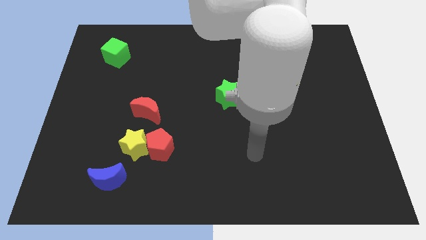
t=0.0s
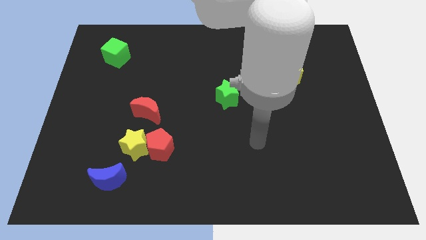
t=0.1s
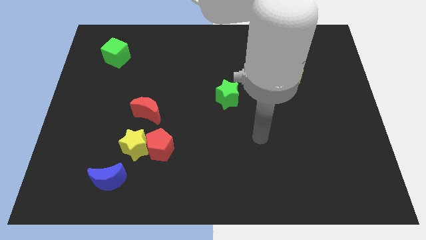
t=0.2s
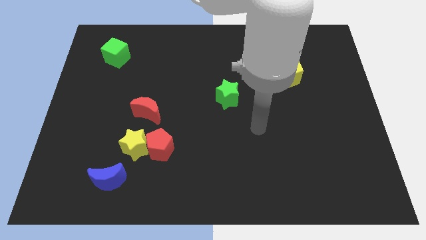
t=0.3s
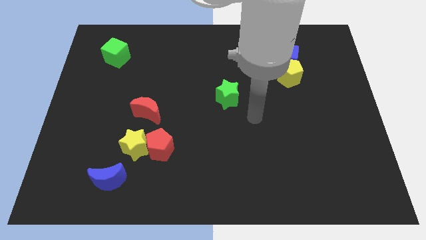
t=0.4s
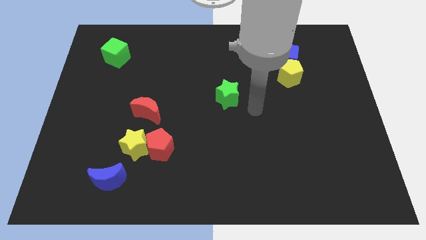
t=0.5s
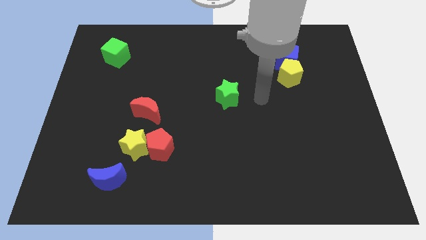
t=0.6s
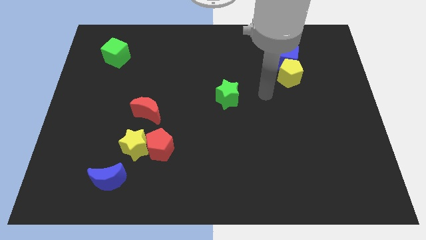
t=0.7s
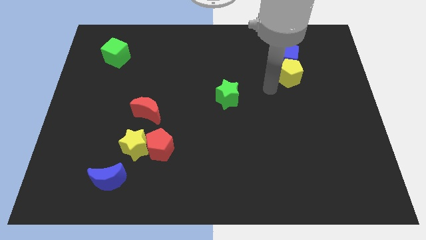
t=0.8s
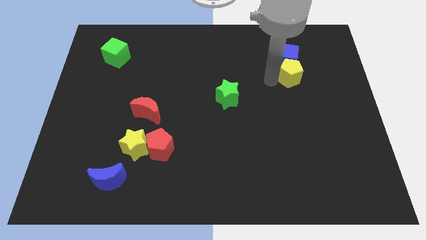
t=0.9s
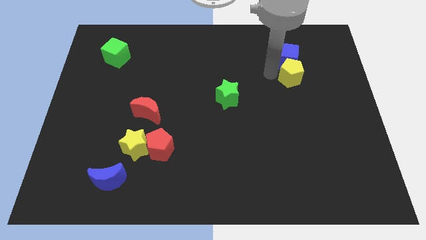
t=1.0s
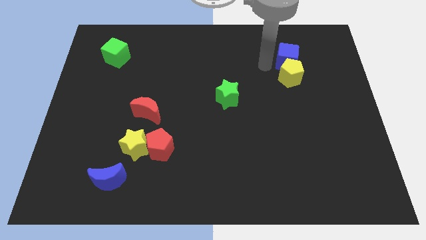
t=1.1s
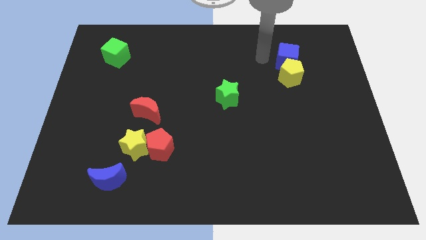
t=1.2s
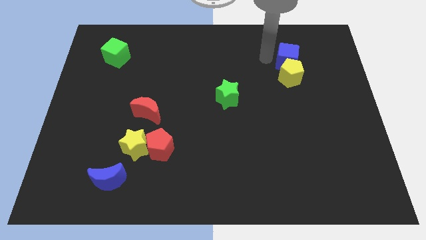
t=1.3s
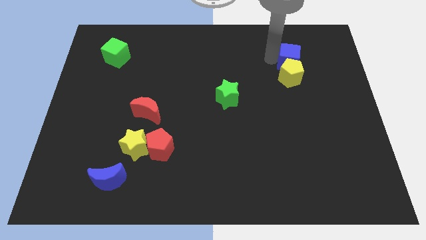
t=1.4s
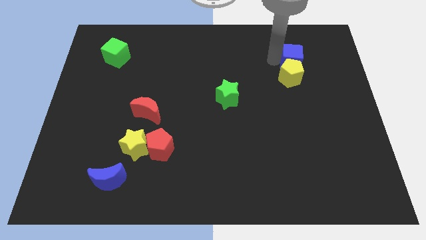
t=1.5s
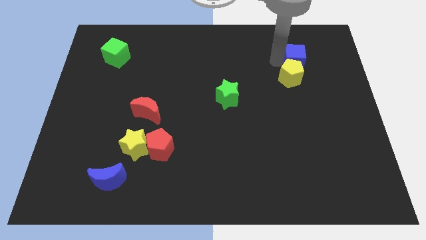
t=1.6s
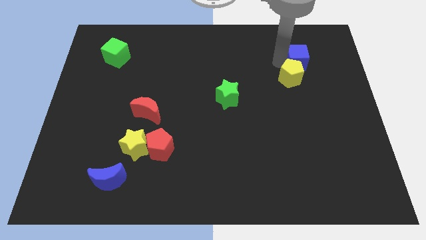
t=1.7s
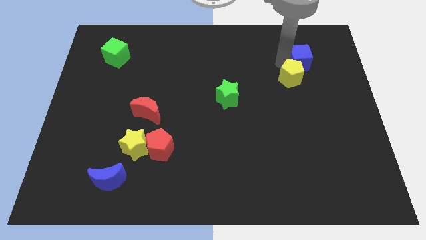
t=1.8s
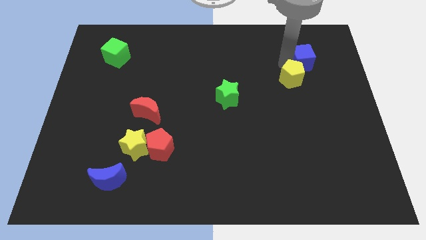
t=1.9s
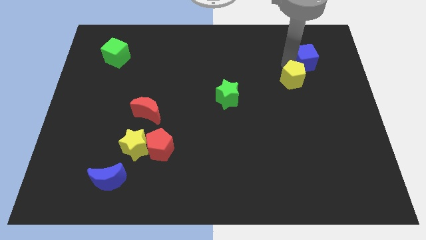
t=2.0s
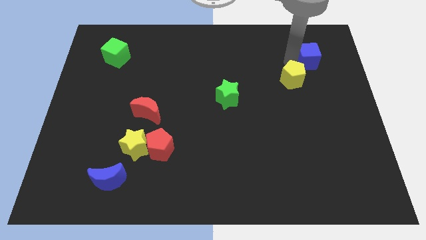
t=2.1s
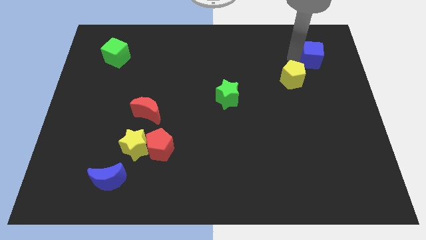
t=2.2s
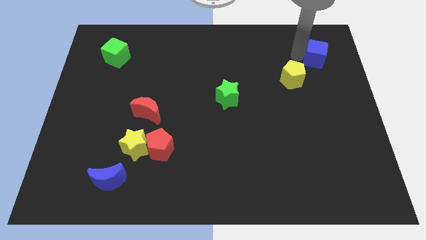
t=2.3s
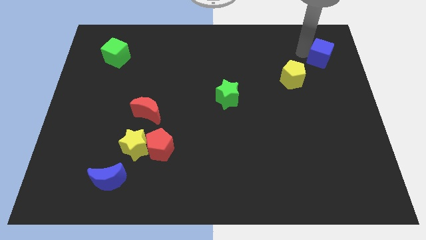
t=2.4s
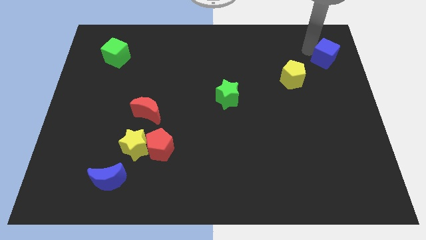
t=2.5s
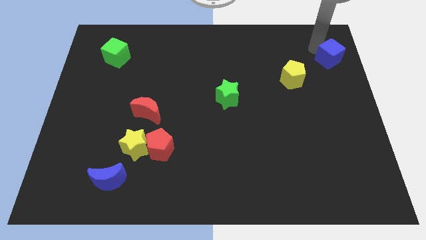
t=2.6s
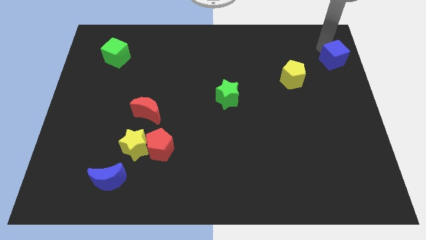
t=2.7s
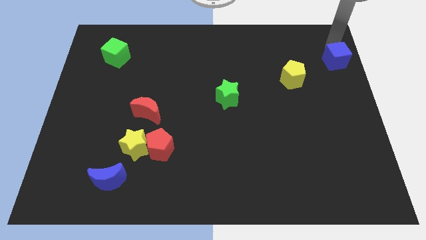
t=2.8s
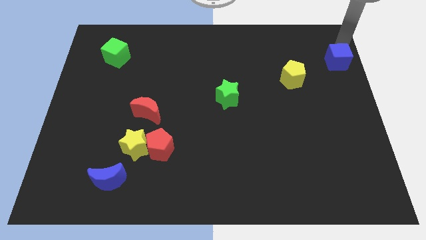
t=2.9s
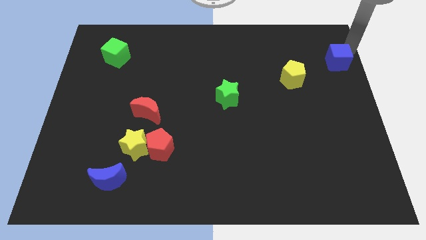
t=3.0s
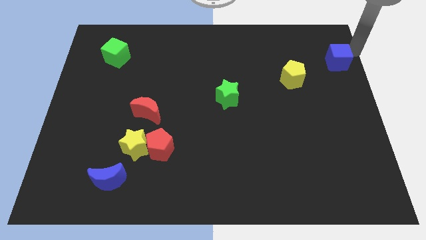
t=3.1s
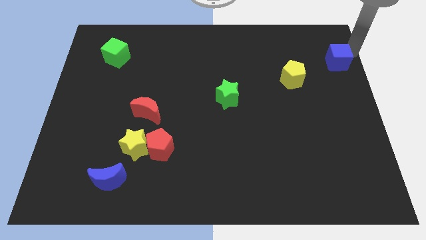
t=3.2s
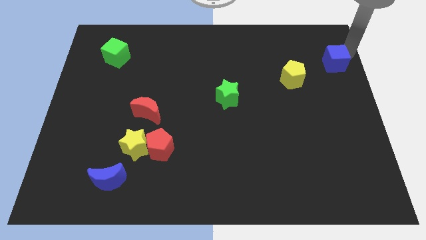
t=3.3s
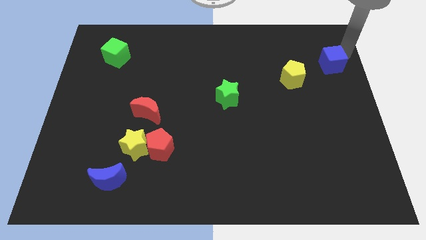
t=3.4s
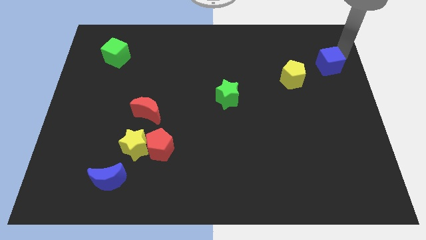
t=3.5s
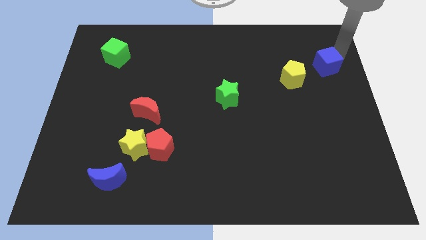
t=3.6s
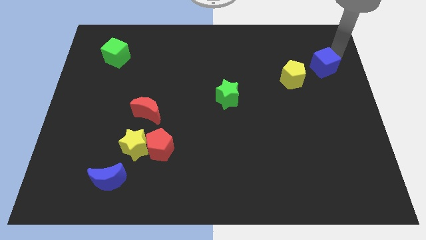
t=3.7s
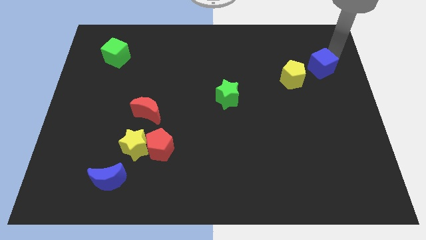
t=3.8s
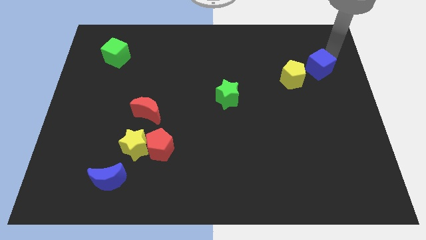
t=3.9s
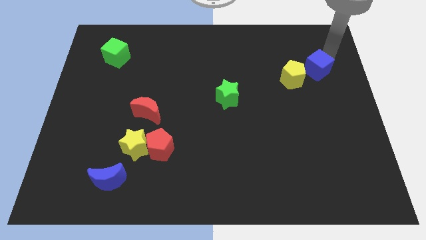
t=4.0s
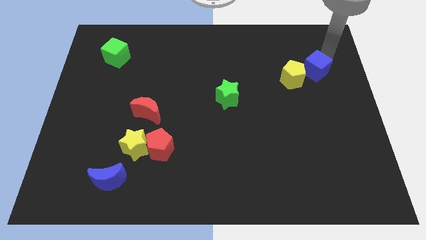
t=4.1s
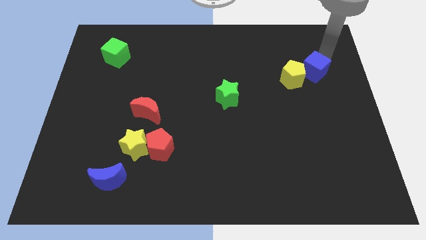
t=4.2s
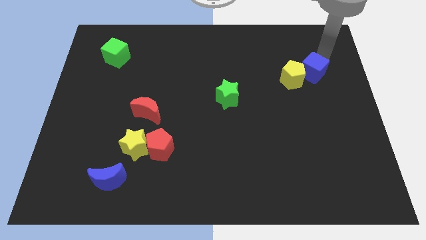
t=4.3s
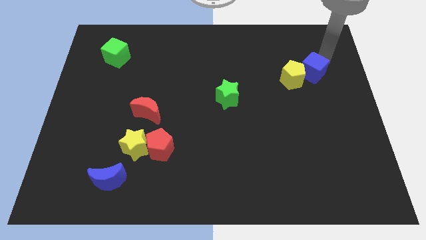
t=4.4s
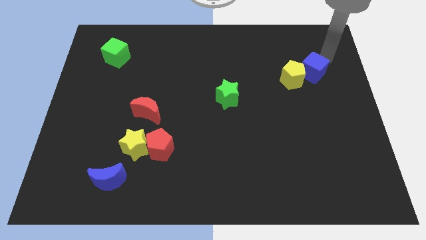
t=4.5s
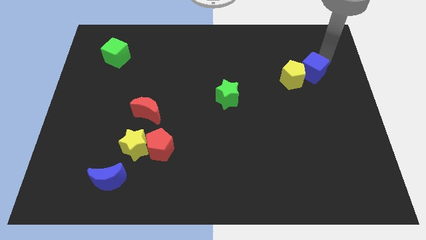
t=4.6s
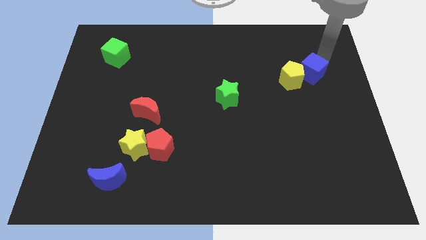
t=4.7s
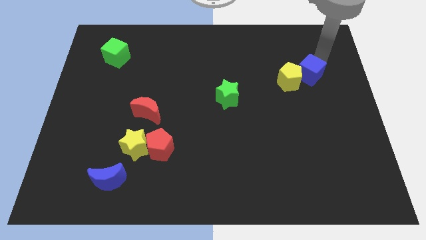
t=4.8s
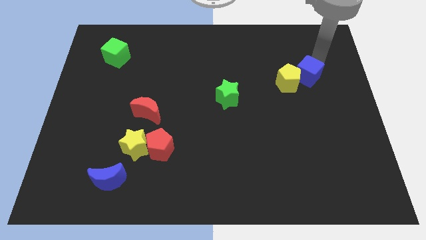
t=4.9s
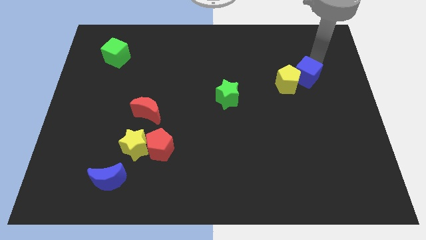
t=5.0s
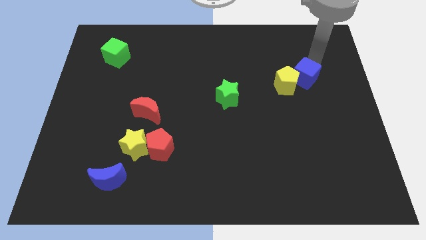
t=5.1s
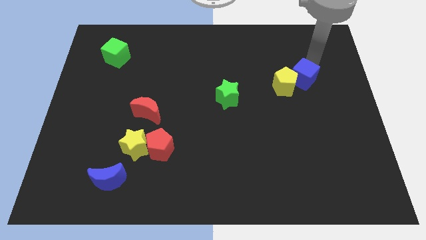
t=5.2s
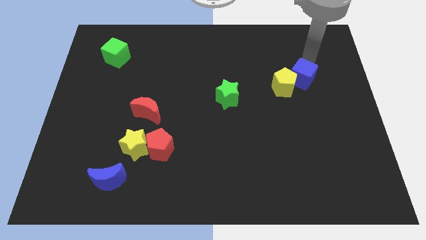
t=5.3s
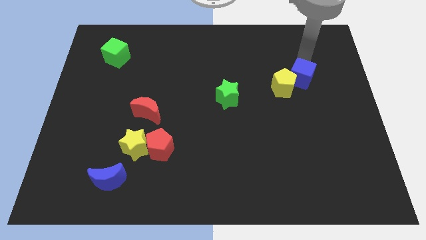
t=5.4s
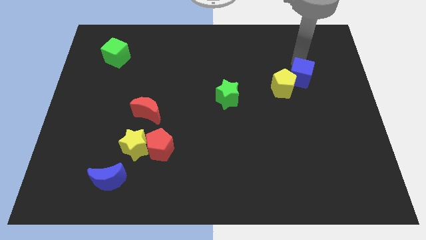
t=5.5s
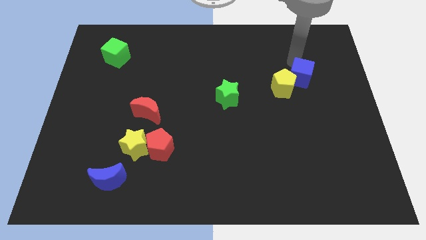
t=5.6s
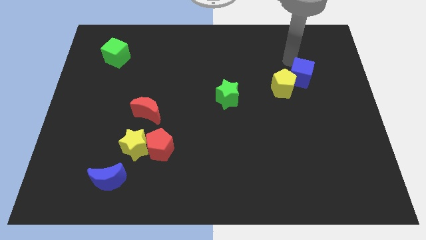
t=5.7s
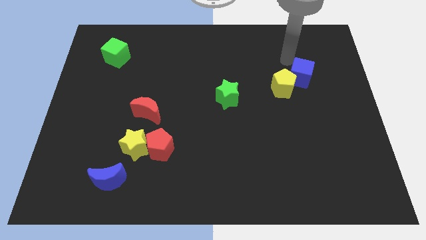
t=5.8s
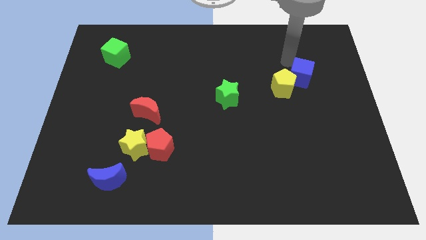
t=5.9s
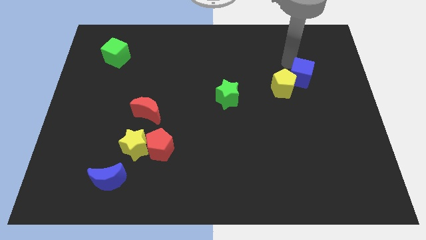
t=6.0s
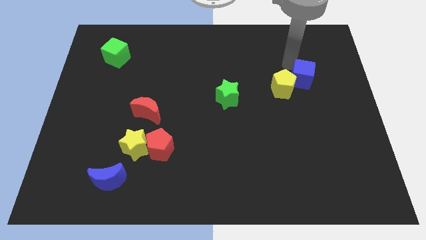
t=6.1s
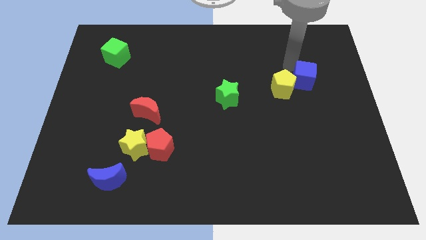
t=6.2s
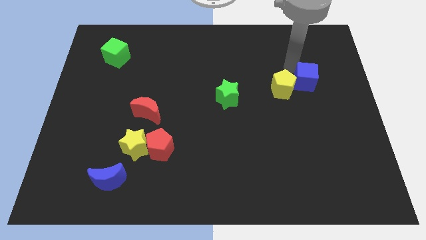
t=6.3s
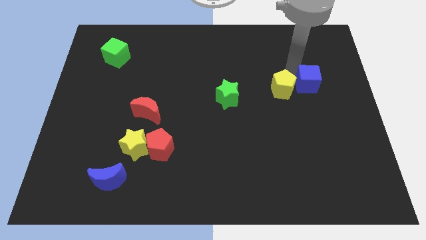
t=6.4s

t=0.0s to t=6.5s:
push the blue cube downwards a bit

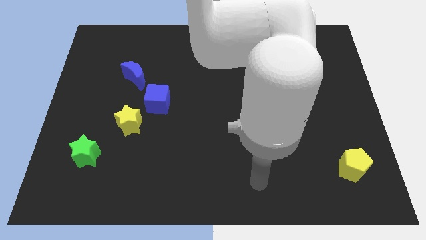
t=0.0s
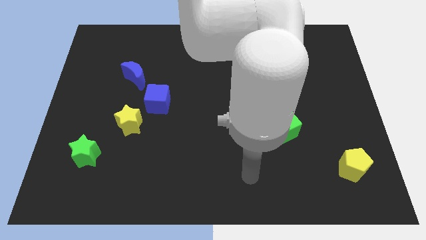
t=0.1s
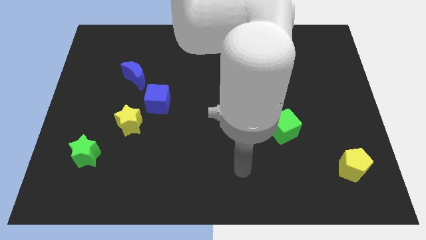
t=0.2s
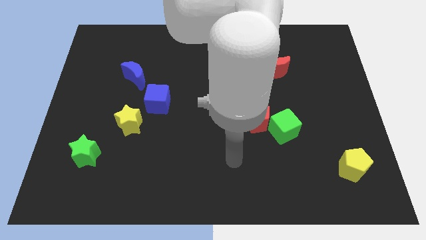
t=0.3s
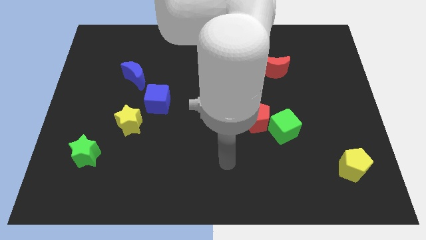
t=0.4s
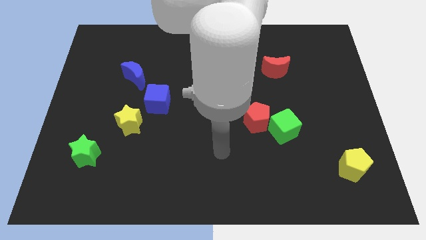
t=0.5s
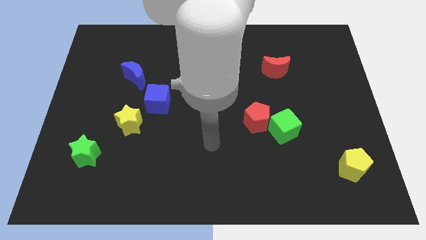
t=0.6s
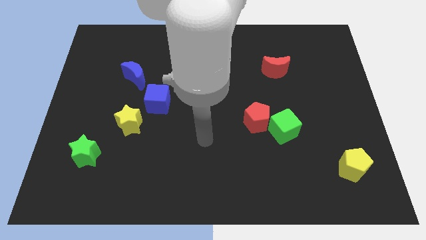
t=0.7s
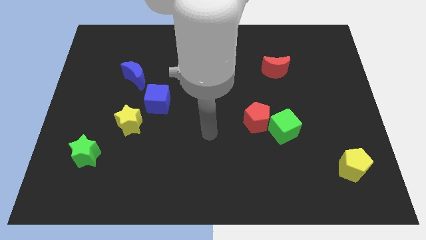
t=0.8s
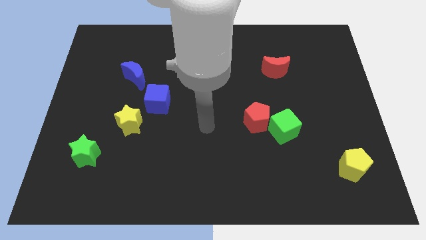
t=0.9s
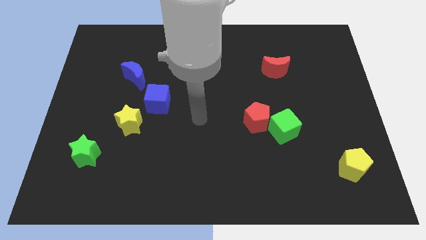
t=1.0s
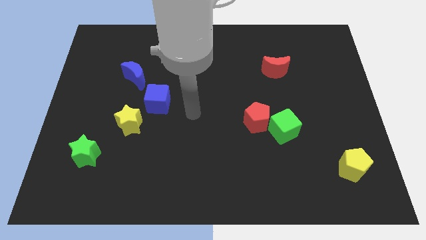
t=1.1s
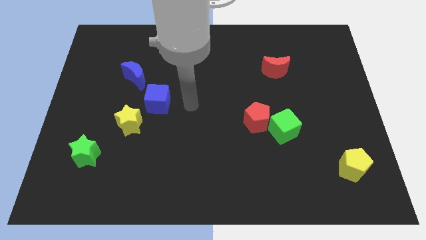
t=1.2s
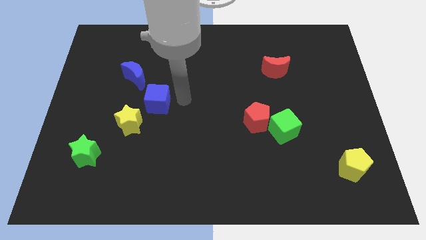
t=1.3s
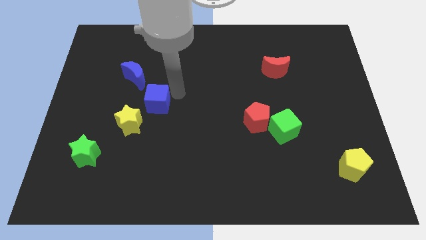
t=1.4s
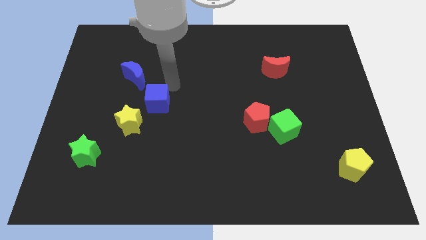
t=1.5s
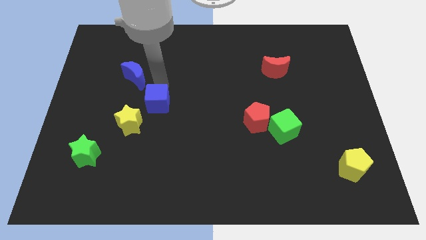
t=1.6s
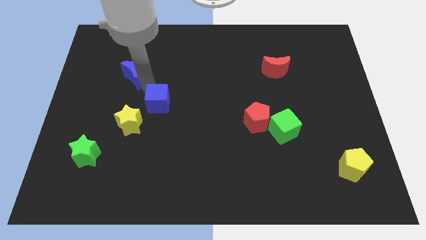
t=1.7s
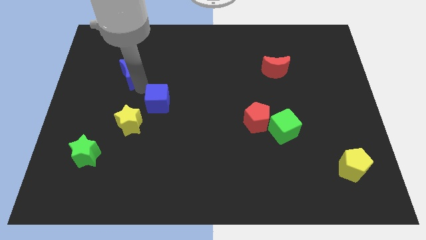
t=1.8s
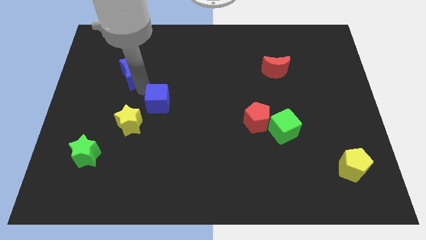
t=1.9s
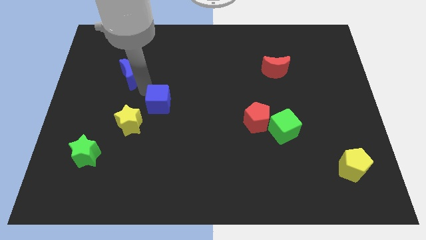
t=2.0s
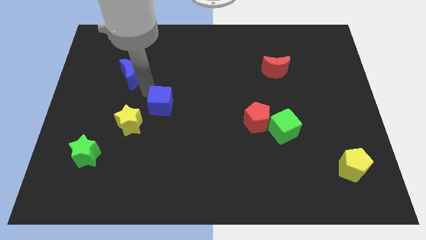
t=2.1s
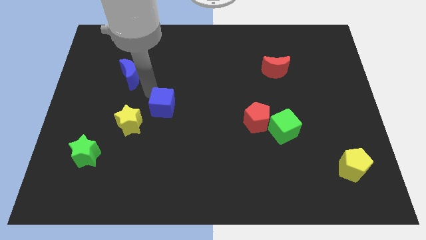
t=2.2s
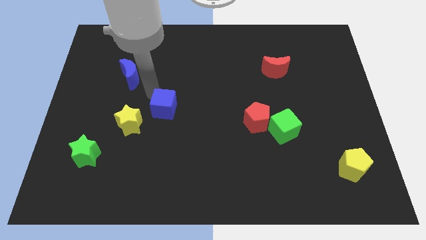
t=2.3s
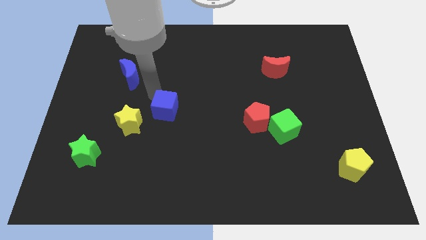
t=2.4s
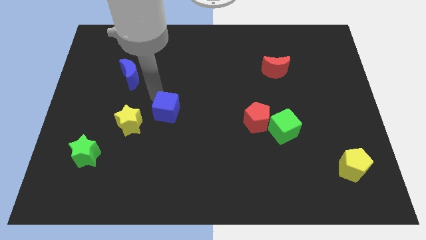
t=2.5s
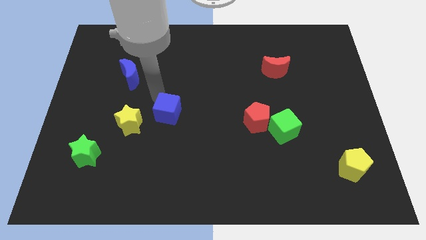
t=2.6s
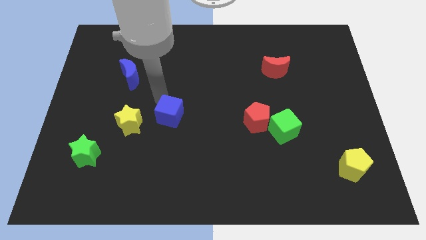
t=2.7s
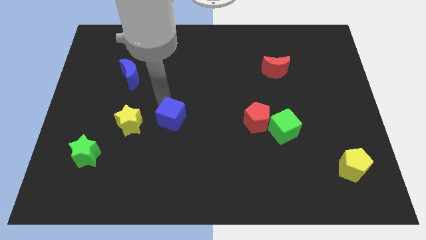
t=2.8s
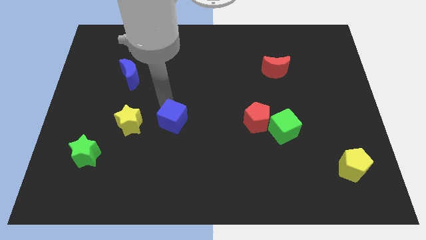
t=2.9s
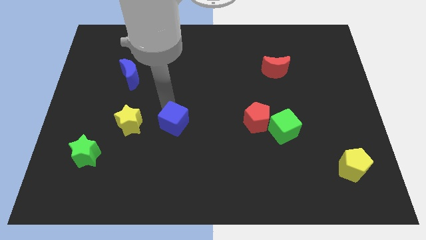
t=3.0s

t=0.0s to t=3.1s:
slightly push the blue cube down and right diagonally
